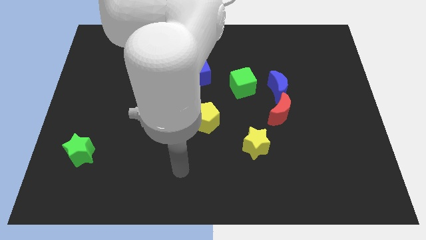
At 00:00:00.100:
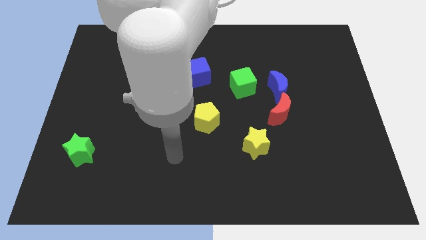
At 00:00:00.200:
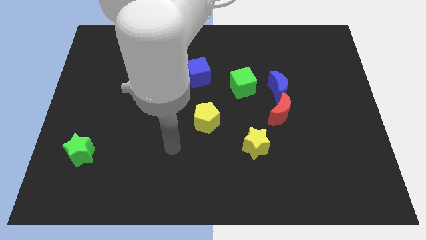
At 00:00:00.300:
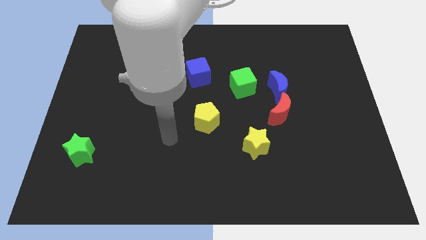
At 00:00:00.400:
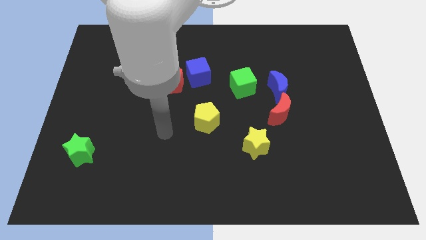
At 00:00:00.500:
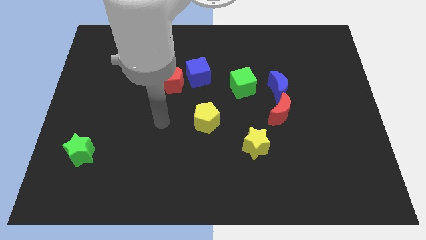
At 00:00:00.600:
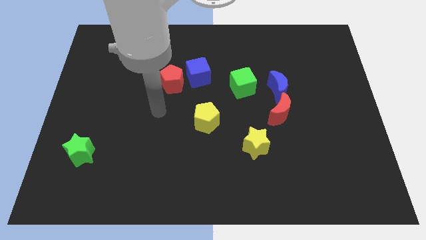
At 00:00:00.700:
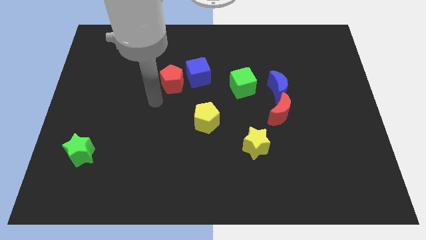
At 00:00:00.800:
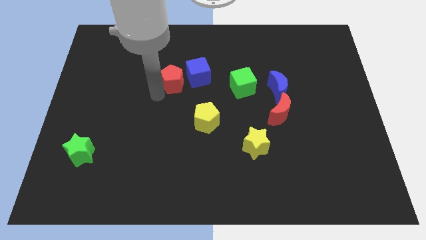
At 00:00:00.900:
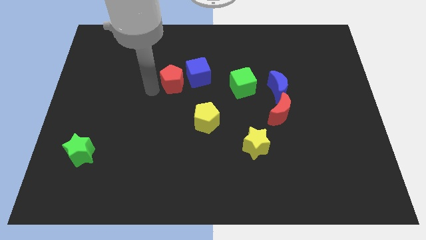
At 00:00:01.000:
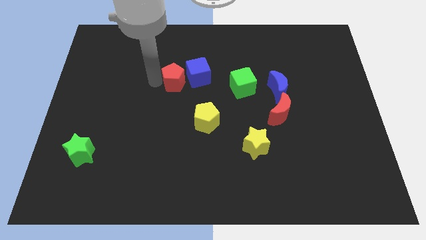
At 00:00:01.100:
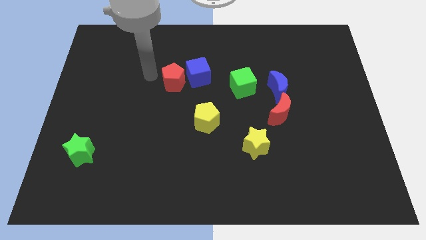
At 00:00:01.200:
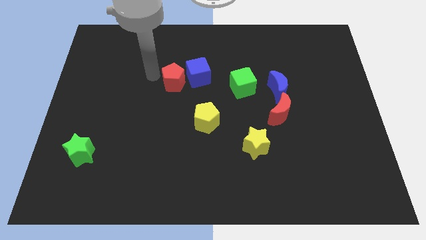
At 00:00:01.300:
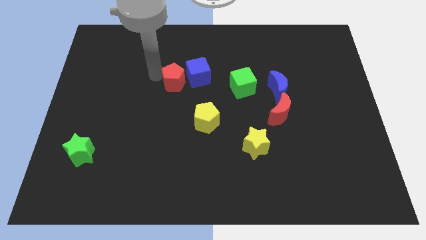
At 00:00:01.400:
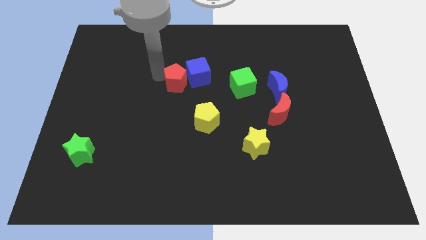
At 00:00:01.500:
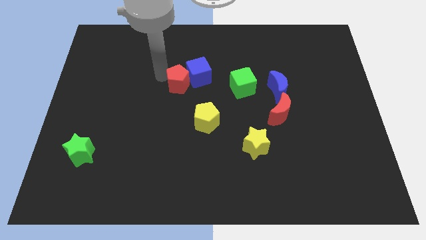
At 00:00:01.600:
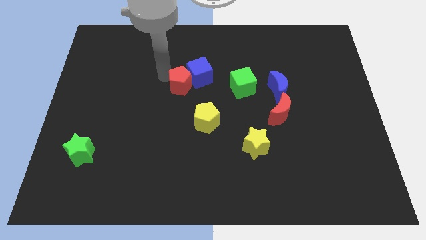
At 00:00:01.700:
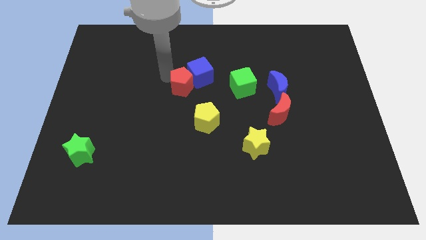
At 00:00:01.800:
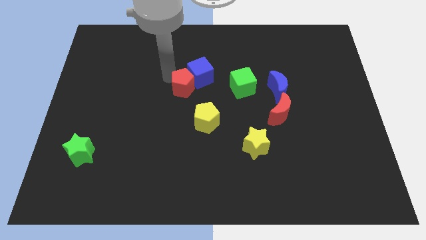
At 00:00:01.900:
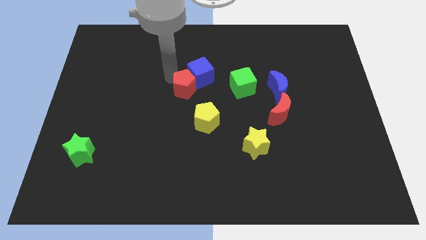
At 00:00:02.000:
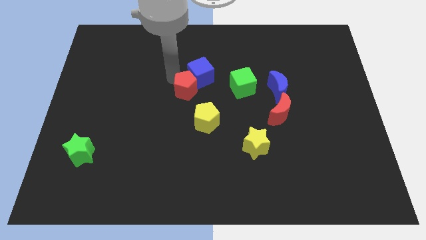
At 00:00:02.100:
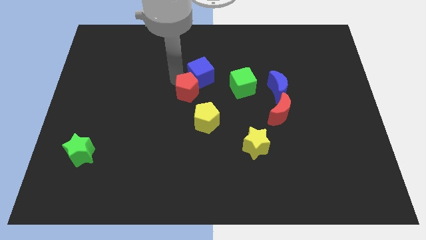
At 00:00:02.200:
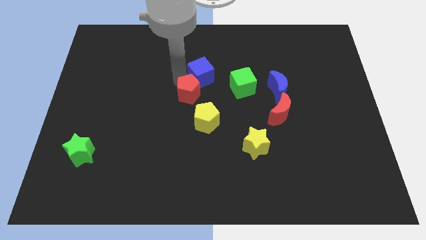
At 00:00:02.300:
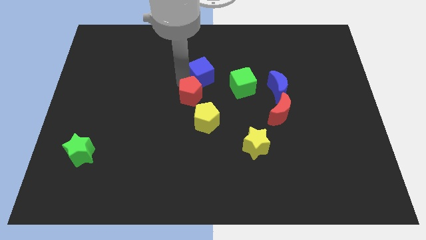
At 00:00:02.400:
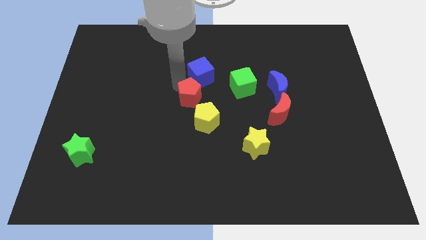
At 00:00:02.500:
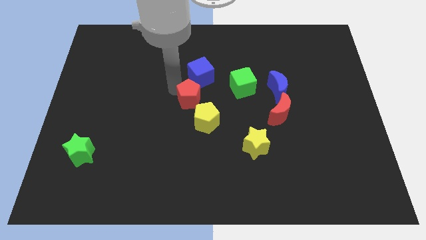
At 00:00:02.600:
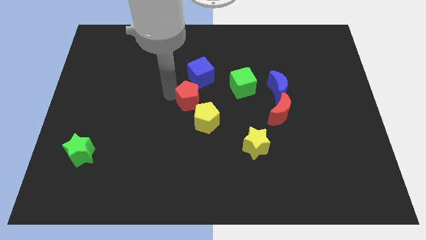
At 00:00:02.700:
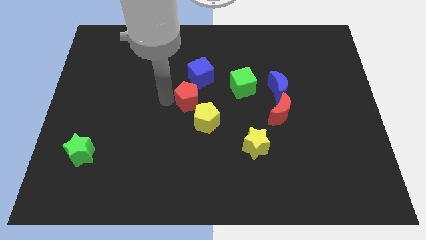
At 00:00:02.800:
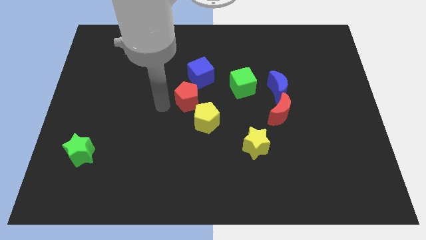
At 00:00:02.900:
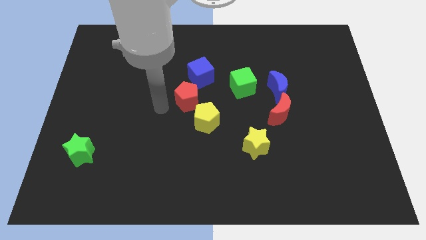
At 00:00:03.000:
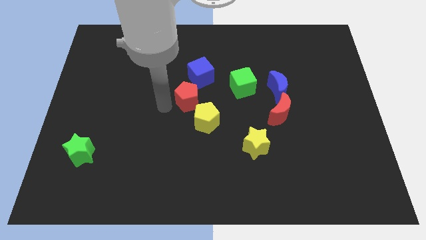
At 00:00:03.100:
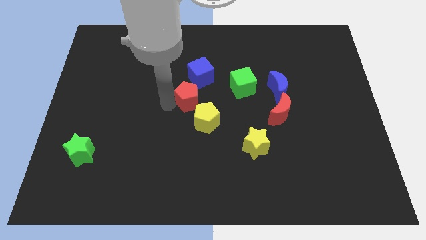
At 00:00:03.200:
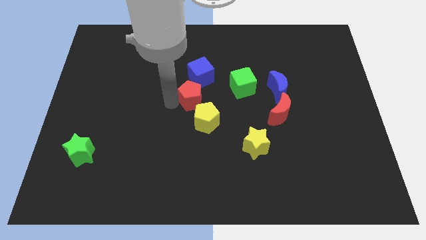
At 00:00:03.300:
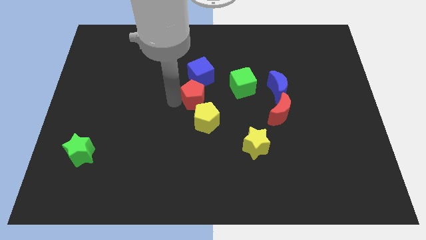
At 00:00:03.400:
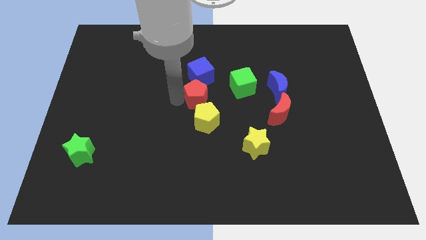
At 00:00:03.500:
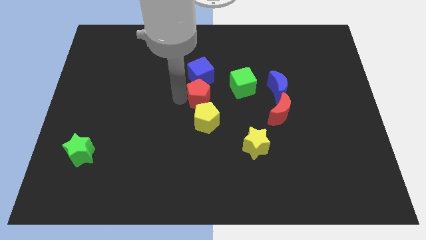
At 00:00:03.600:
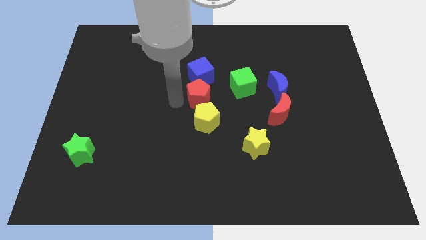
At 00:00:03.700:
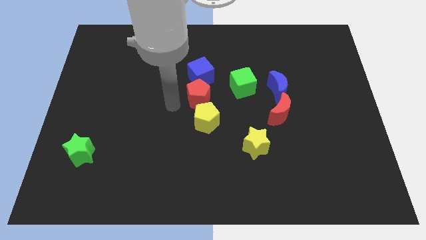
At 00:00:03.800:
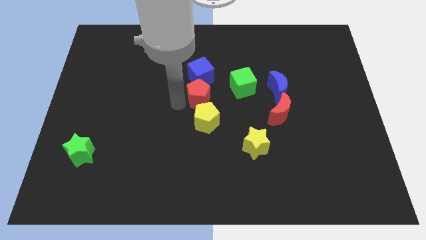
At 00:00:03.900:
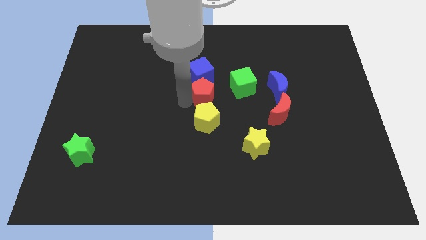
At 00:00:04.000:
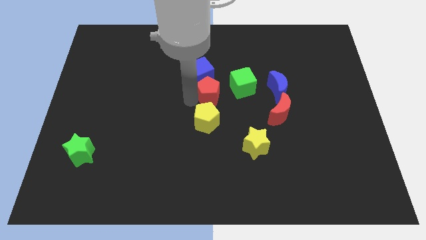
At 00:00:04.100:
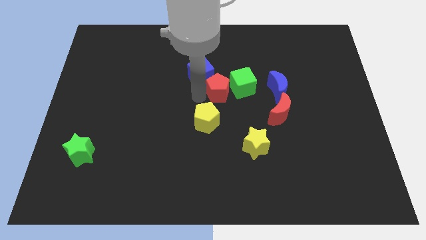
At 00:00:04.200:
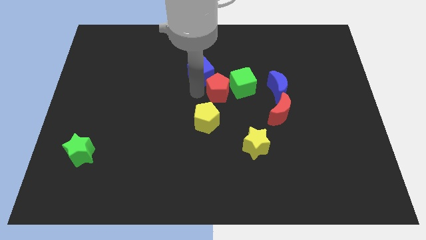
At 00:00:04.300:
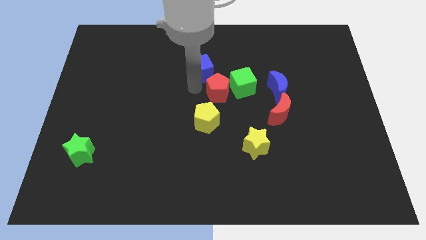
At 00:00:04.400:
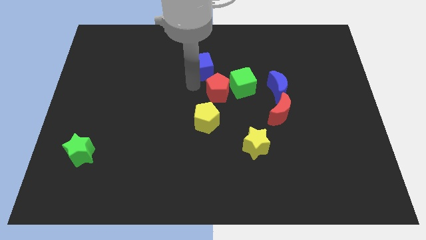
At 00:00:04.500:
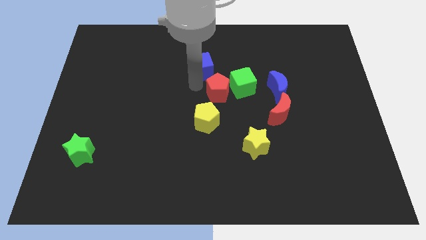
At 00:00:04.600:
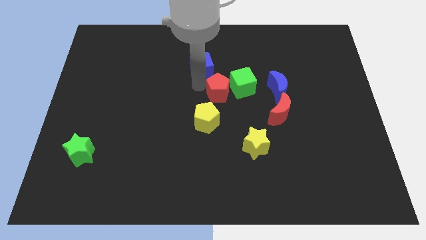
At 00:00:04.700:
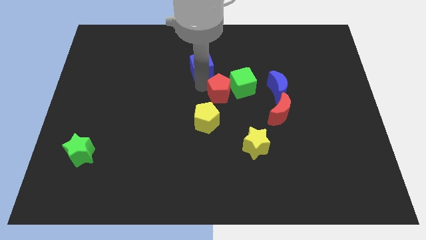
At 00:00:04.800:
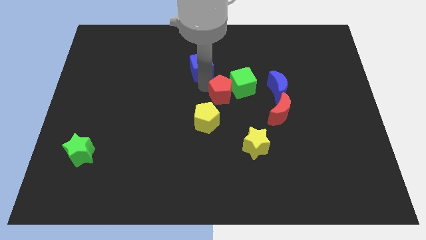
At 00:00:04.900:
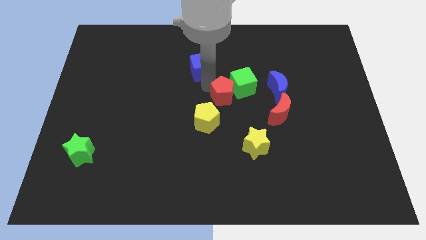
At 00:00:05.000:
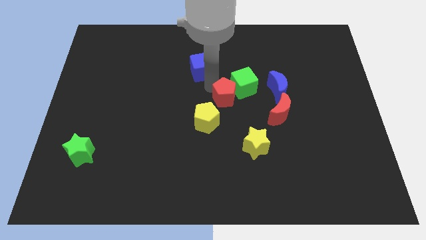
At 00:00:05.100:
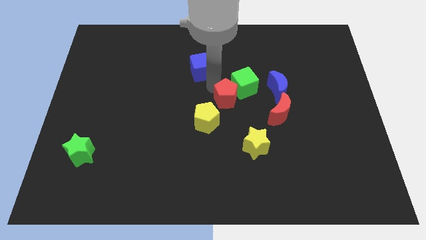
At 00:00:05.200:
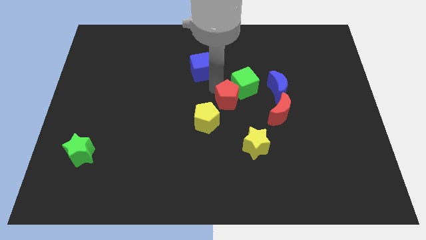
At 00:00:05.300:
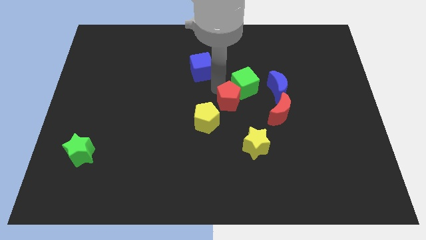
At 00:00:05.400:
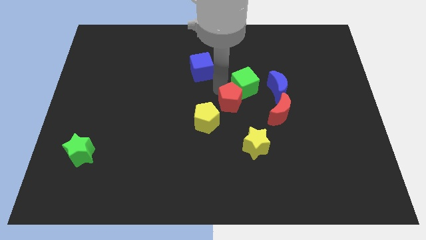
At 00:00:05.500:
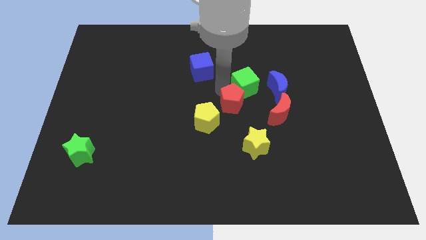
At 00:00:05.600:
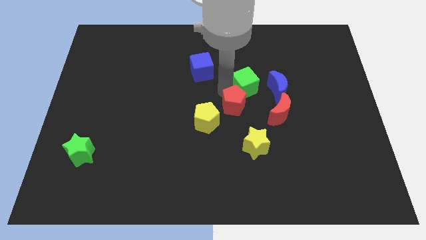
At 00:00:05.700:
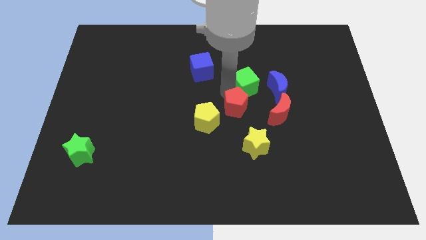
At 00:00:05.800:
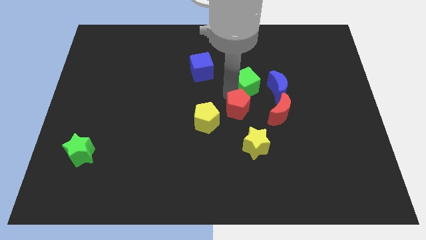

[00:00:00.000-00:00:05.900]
slide the red pentagon to the bottom left of the blue moon

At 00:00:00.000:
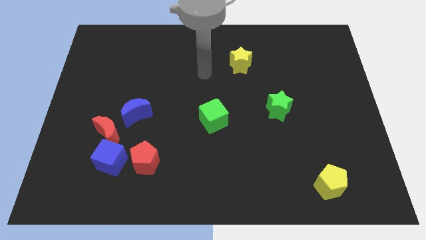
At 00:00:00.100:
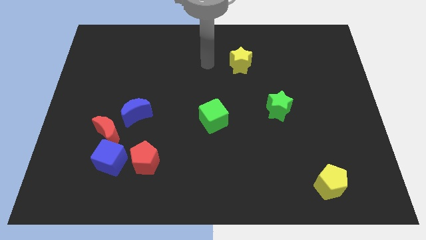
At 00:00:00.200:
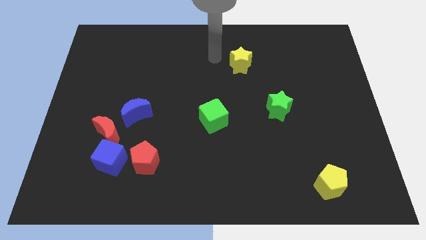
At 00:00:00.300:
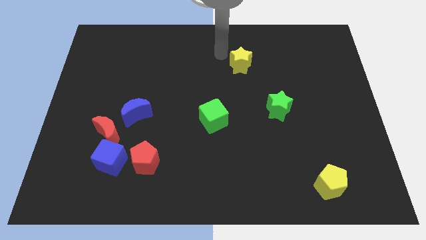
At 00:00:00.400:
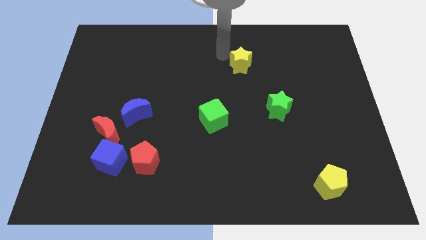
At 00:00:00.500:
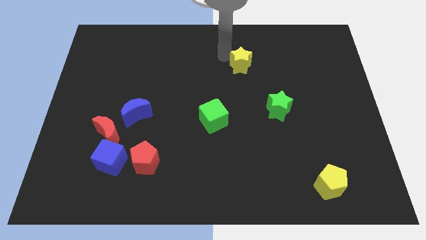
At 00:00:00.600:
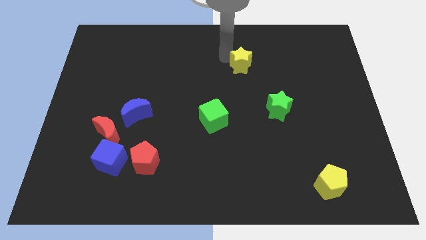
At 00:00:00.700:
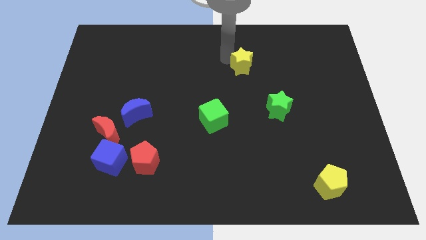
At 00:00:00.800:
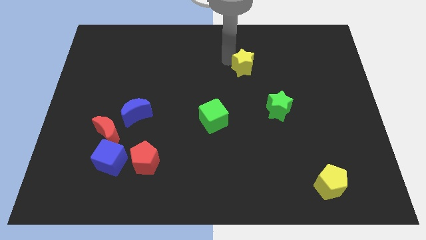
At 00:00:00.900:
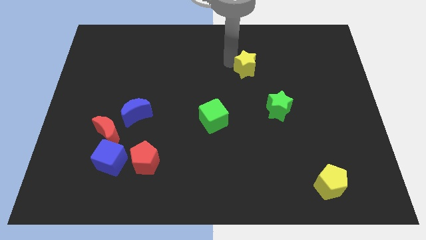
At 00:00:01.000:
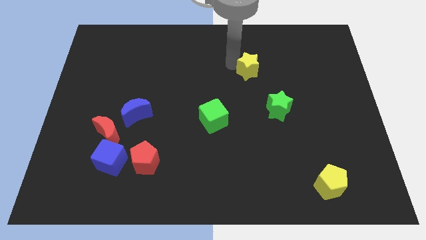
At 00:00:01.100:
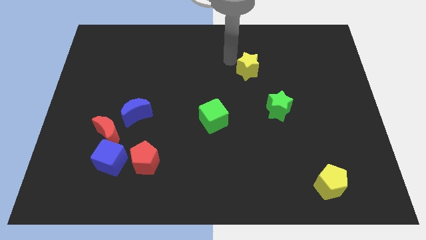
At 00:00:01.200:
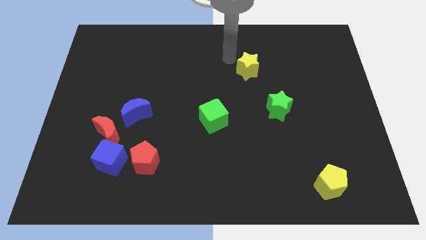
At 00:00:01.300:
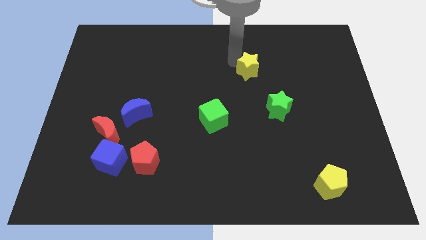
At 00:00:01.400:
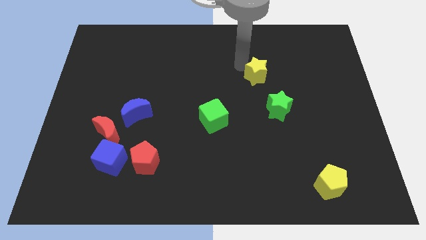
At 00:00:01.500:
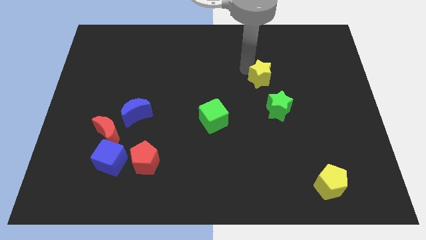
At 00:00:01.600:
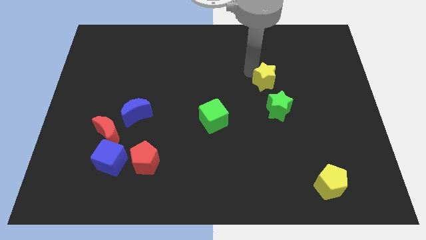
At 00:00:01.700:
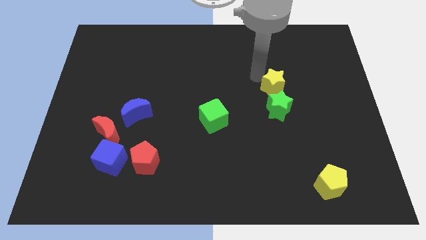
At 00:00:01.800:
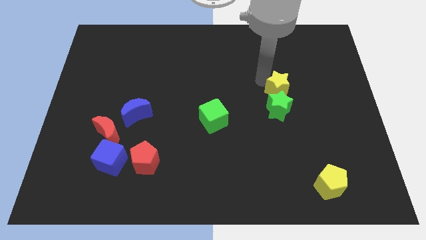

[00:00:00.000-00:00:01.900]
slide the yellow star diagonally up and to the right of the green star
